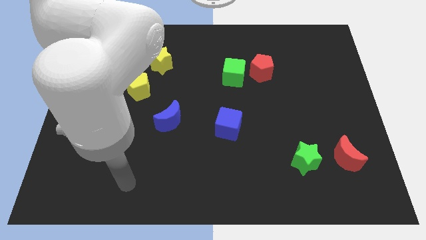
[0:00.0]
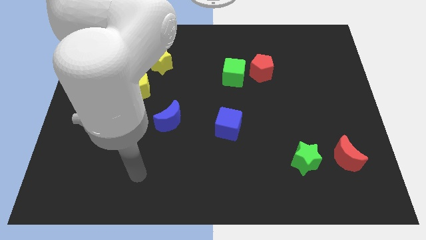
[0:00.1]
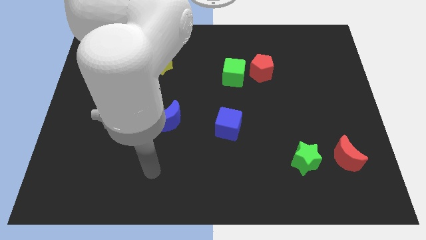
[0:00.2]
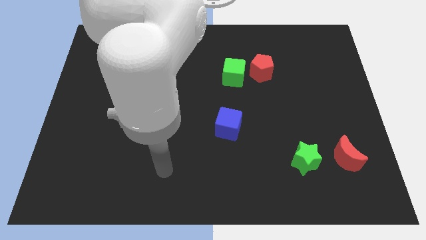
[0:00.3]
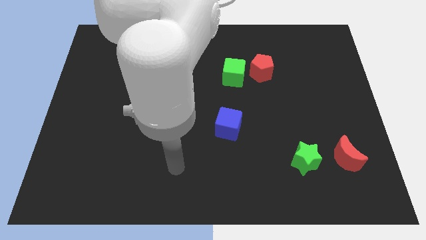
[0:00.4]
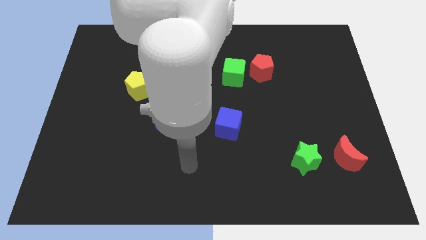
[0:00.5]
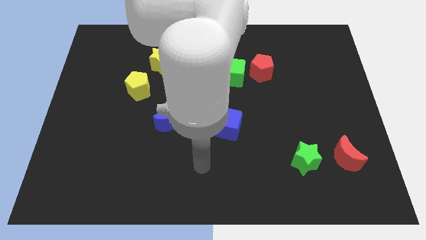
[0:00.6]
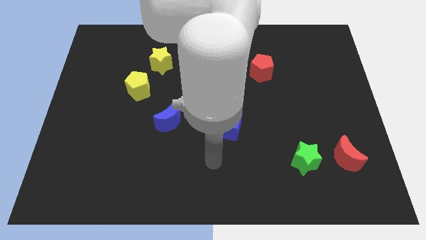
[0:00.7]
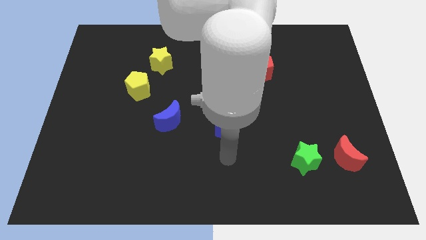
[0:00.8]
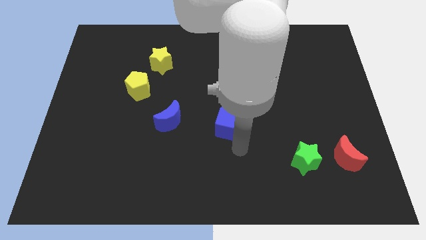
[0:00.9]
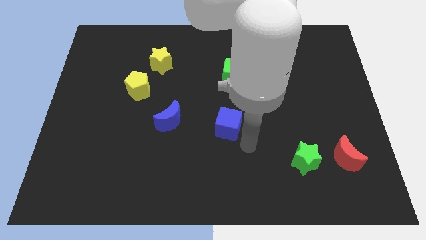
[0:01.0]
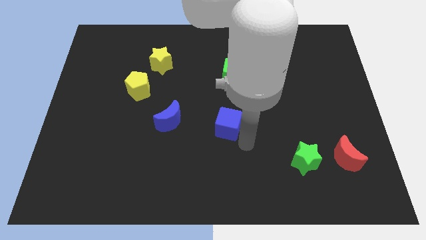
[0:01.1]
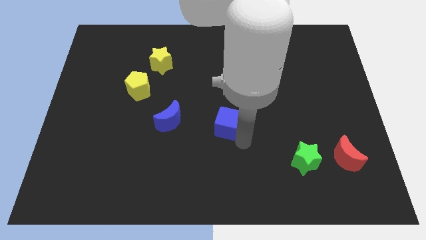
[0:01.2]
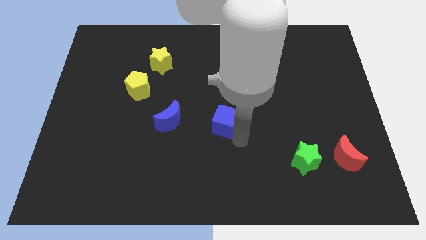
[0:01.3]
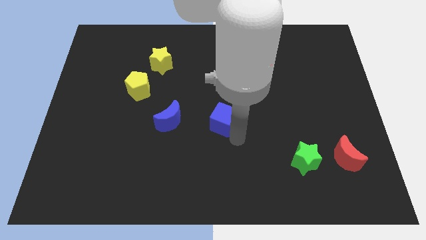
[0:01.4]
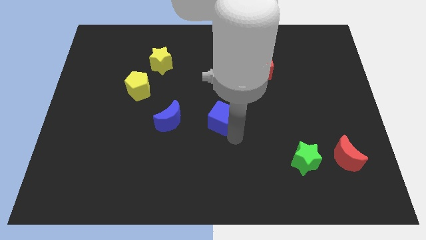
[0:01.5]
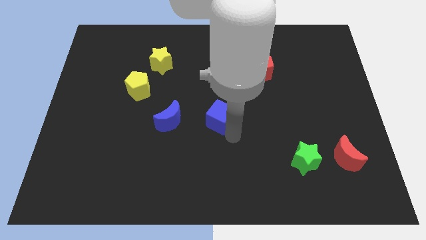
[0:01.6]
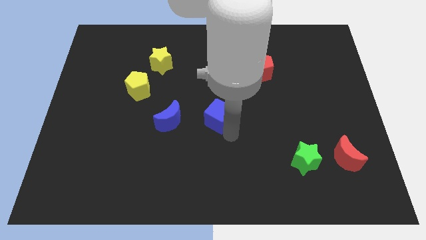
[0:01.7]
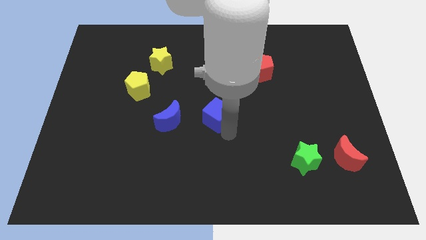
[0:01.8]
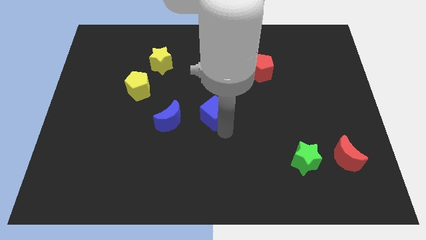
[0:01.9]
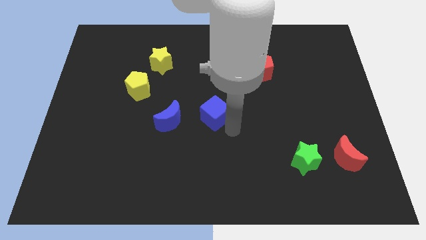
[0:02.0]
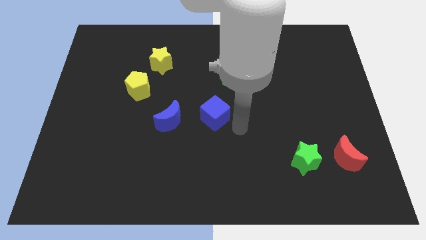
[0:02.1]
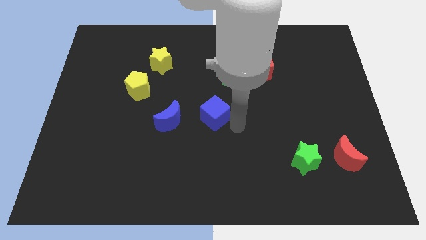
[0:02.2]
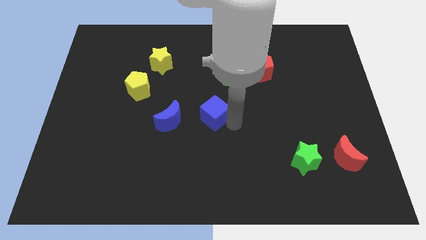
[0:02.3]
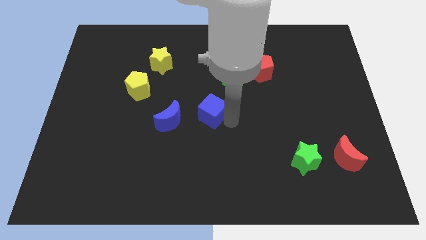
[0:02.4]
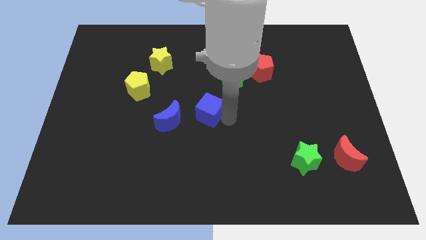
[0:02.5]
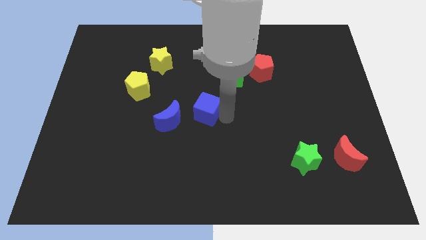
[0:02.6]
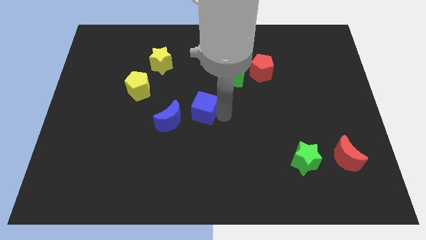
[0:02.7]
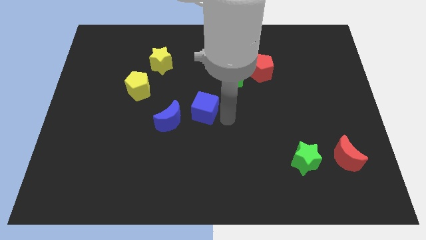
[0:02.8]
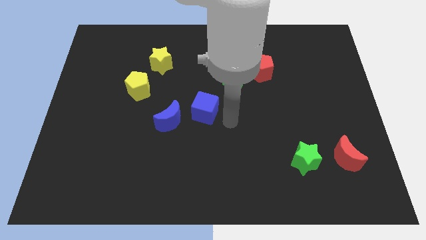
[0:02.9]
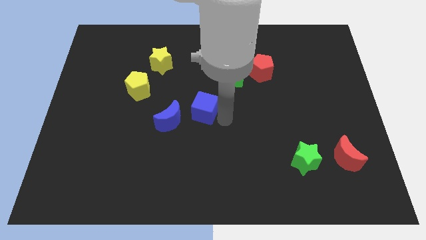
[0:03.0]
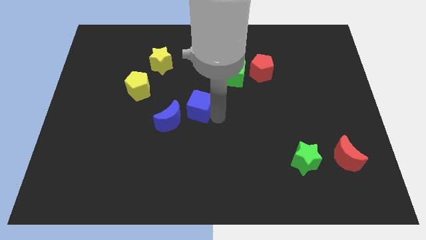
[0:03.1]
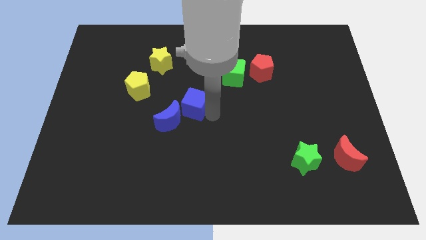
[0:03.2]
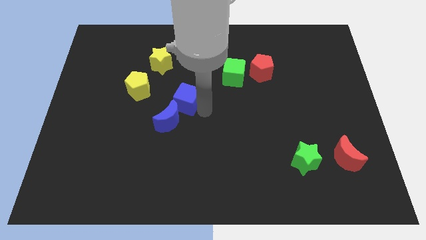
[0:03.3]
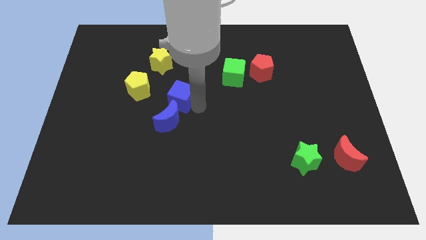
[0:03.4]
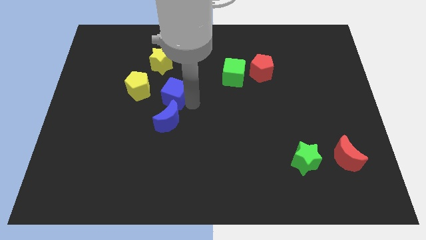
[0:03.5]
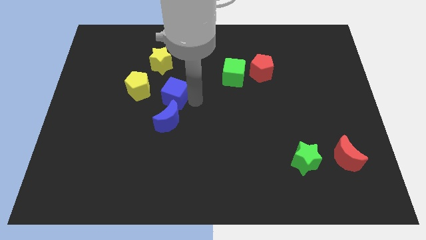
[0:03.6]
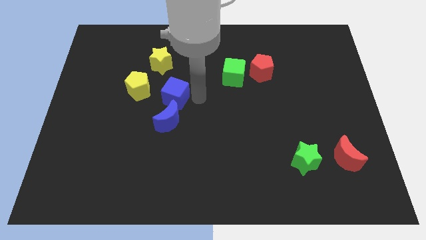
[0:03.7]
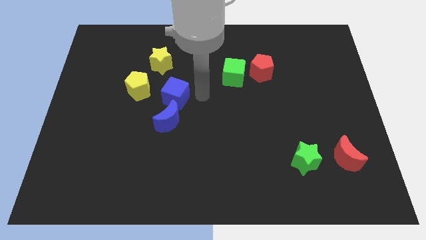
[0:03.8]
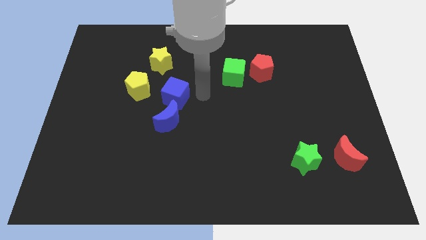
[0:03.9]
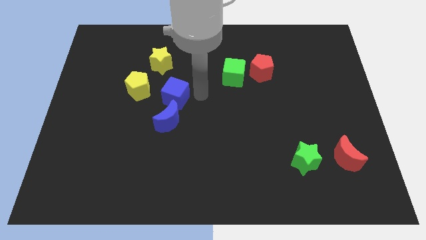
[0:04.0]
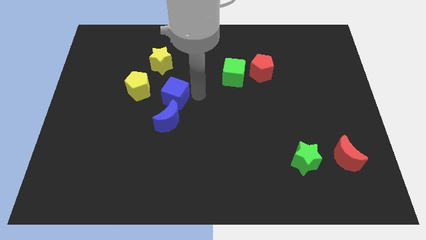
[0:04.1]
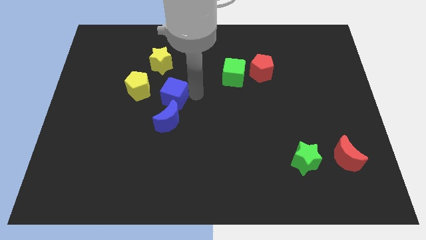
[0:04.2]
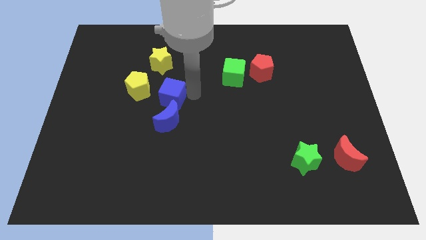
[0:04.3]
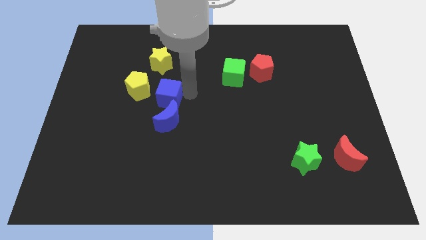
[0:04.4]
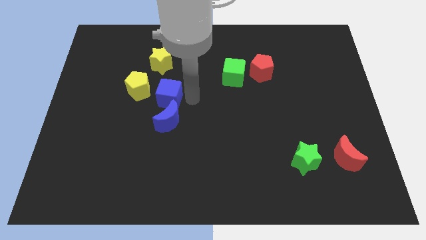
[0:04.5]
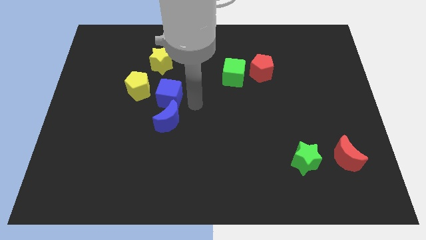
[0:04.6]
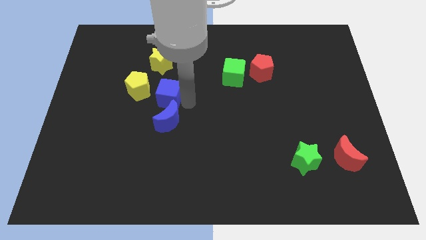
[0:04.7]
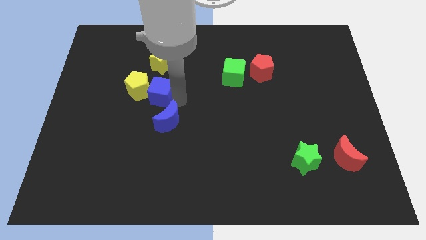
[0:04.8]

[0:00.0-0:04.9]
put the blue cube to the yellow pentagon

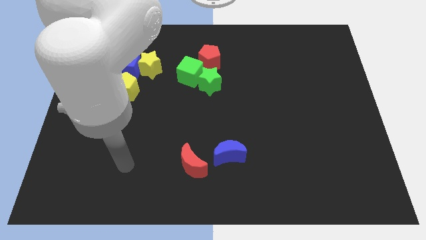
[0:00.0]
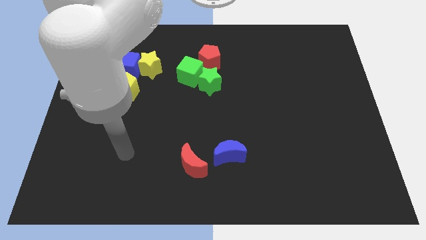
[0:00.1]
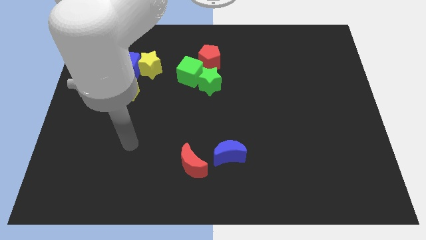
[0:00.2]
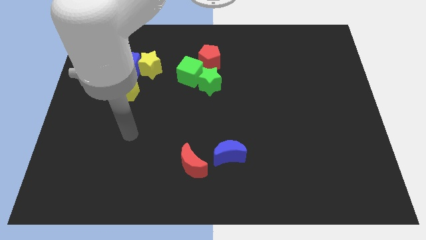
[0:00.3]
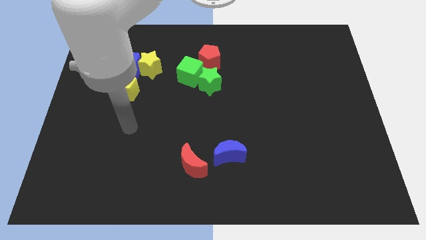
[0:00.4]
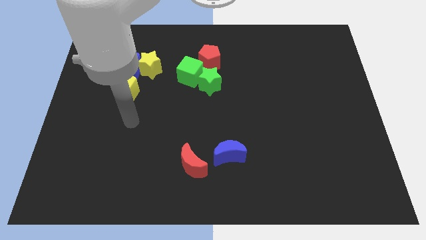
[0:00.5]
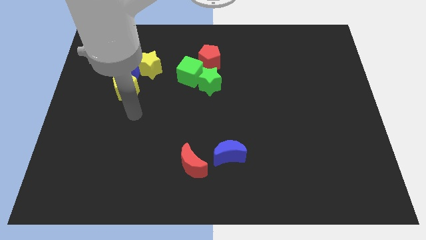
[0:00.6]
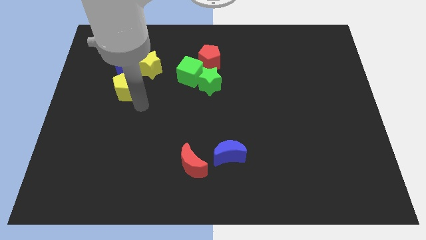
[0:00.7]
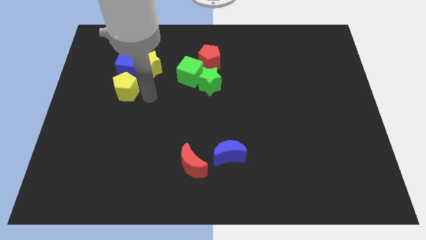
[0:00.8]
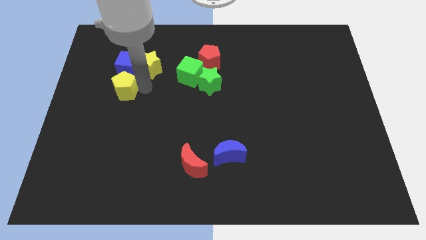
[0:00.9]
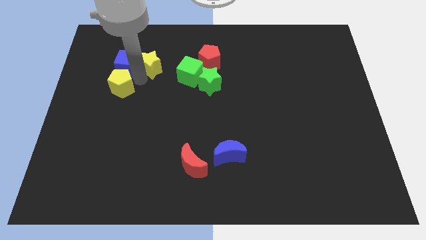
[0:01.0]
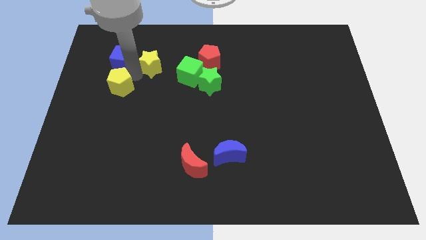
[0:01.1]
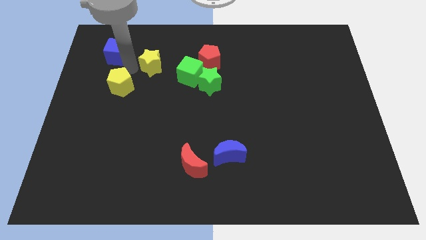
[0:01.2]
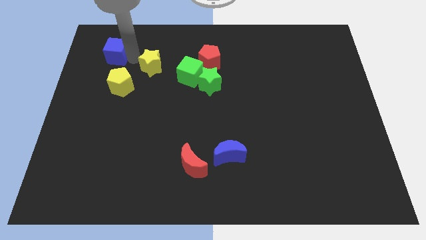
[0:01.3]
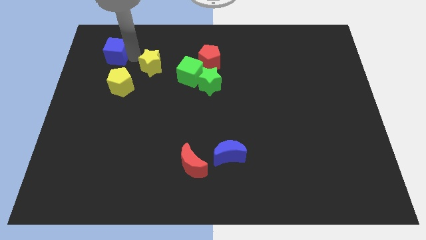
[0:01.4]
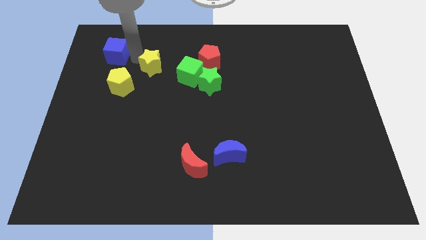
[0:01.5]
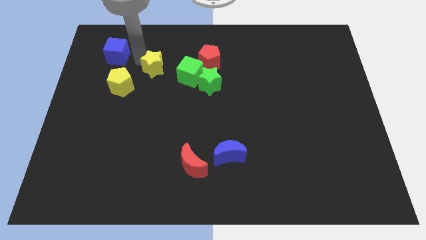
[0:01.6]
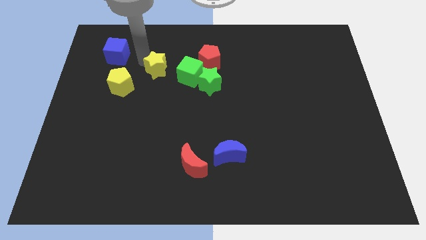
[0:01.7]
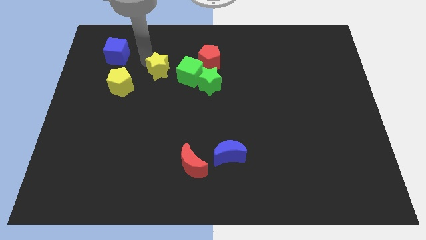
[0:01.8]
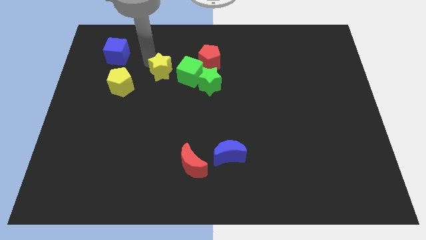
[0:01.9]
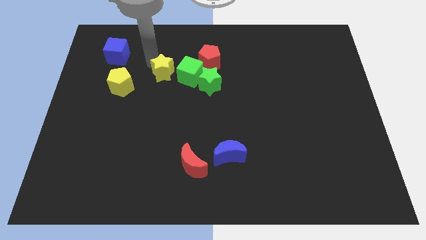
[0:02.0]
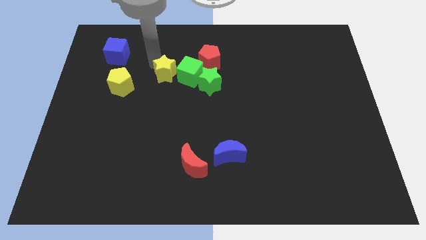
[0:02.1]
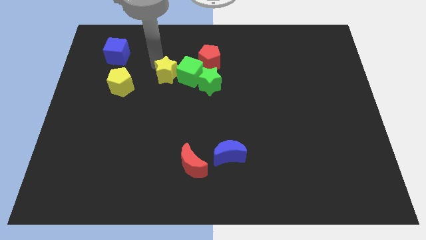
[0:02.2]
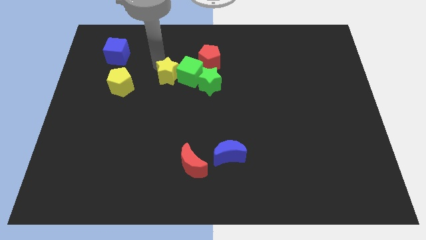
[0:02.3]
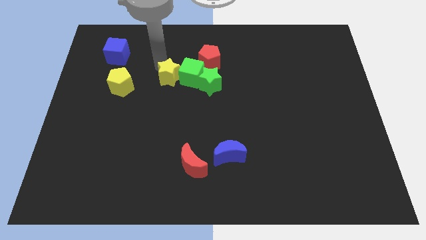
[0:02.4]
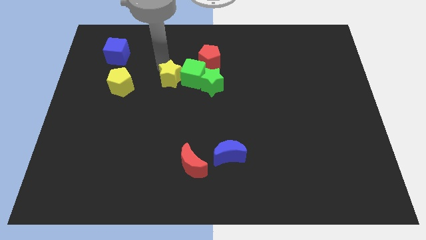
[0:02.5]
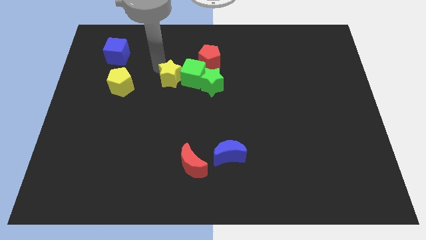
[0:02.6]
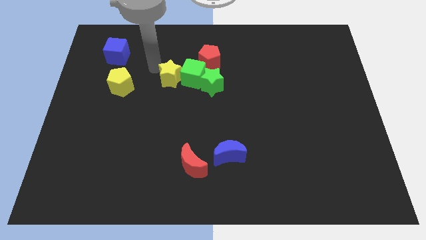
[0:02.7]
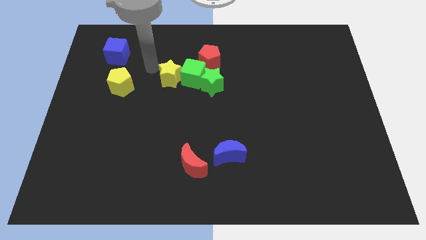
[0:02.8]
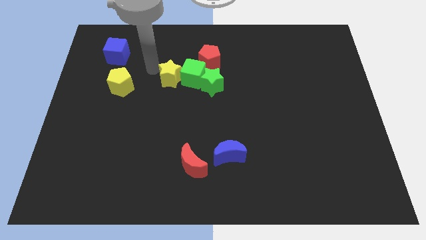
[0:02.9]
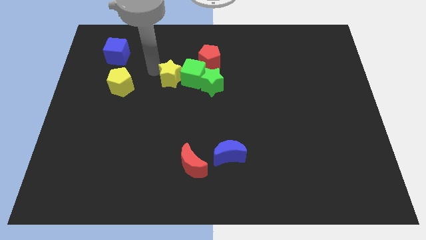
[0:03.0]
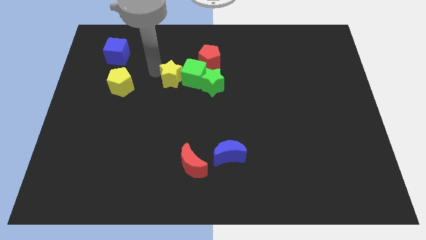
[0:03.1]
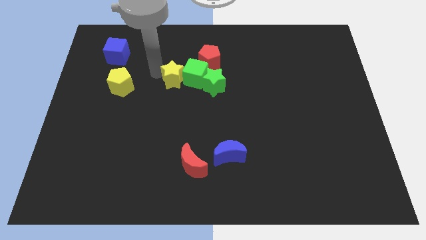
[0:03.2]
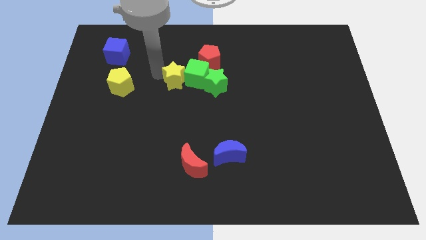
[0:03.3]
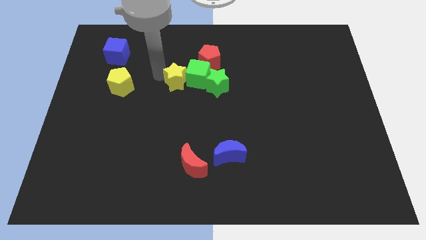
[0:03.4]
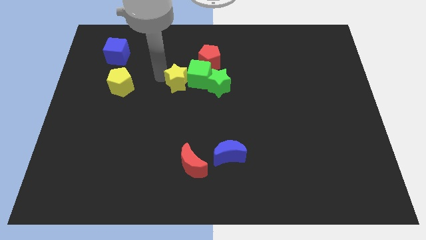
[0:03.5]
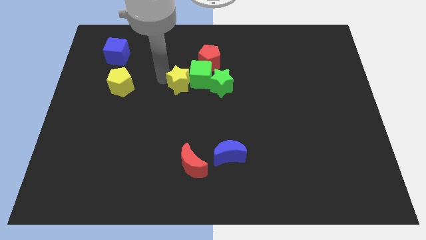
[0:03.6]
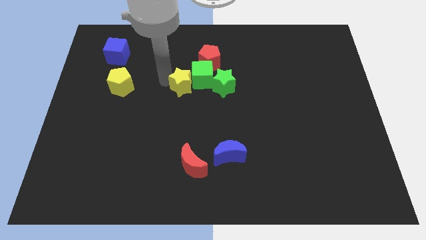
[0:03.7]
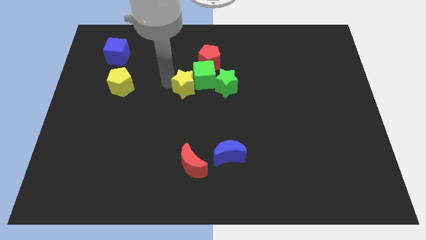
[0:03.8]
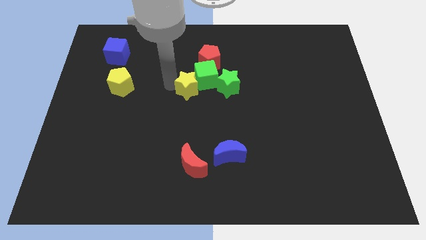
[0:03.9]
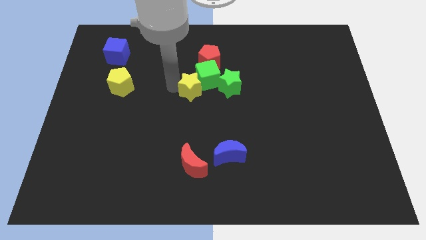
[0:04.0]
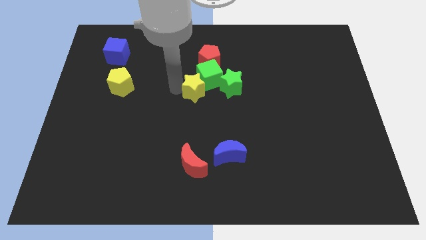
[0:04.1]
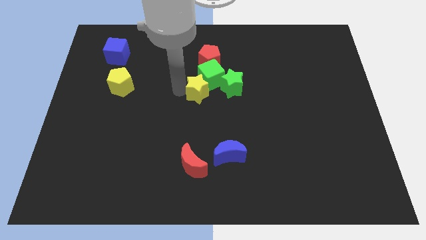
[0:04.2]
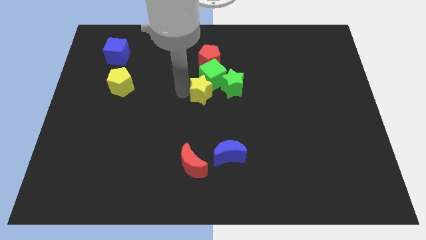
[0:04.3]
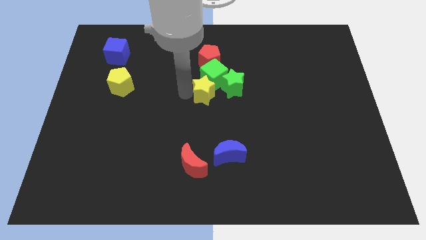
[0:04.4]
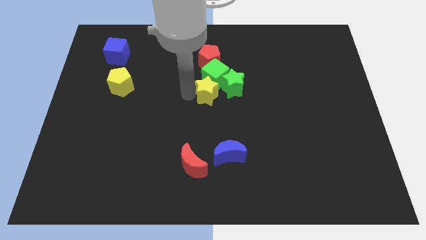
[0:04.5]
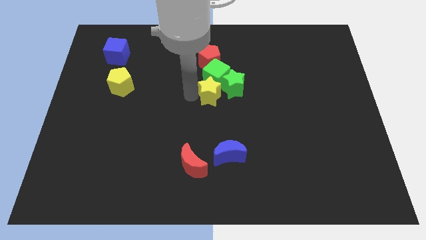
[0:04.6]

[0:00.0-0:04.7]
slide the yellow star close to the green star
